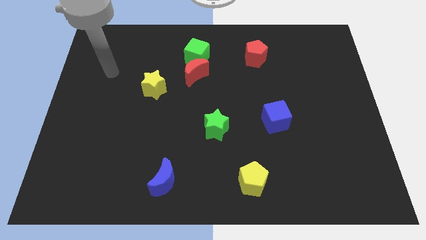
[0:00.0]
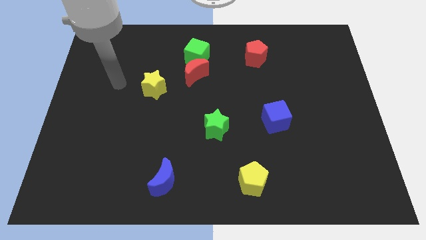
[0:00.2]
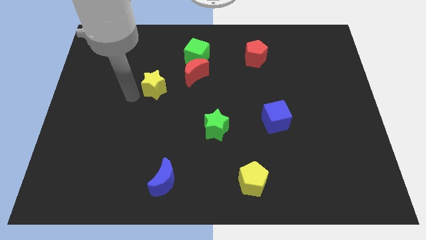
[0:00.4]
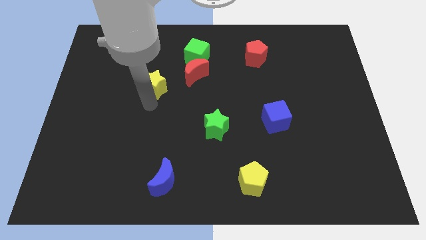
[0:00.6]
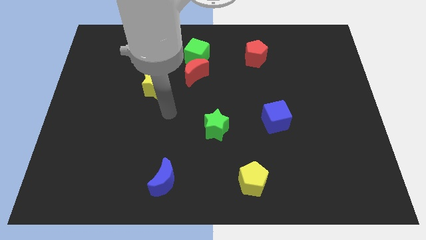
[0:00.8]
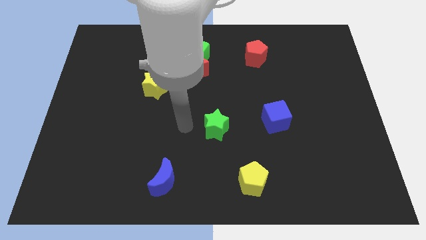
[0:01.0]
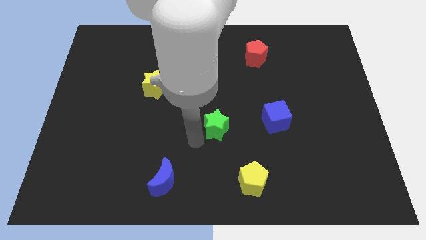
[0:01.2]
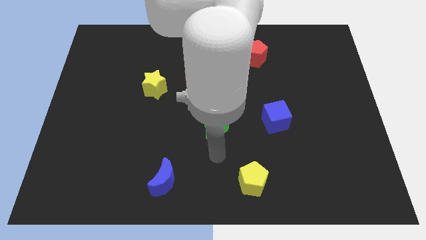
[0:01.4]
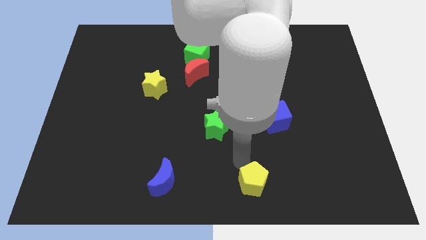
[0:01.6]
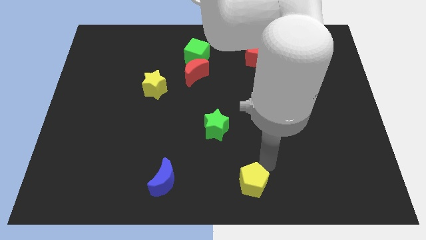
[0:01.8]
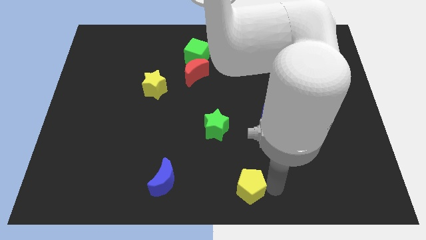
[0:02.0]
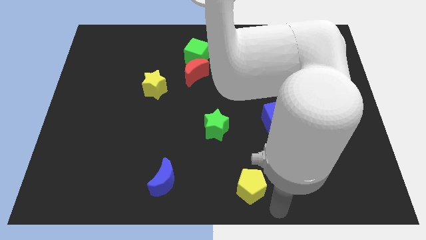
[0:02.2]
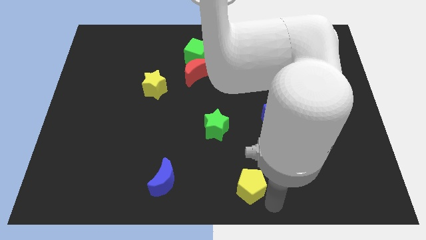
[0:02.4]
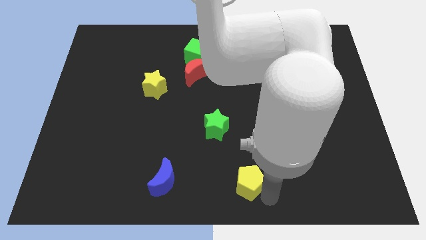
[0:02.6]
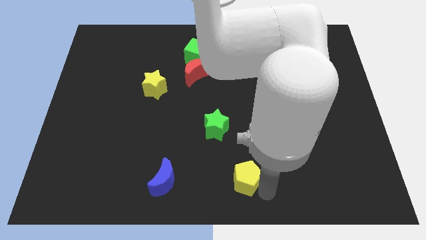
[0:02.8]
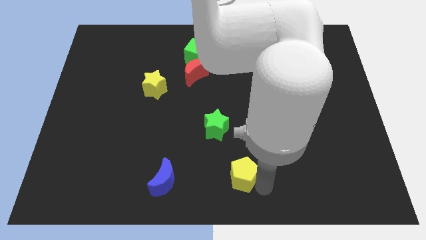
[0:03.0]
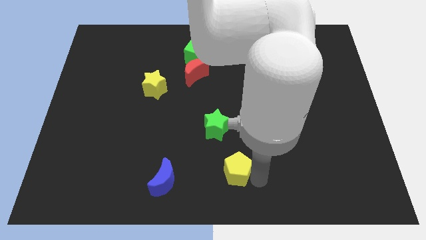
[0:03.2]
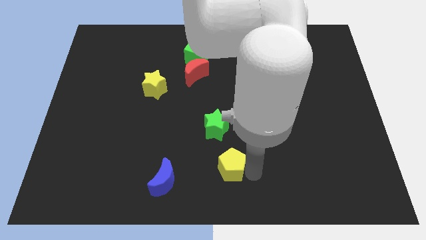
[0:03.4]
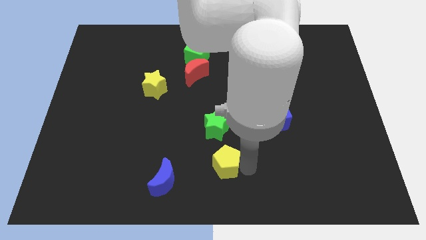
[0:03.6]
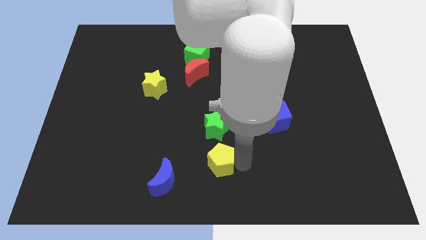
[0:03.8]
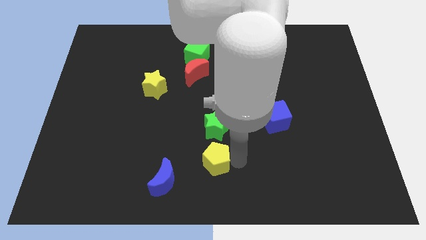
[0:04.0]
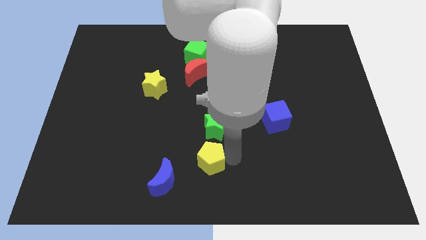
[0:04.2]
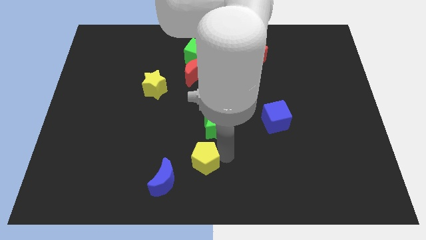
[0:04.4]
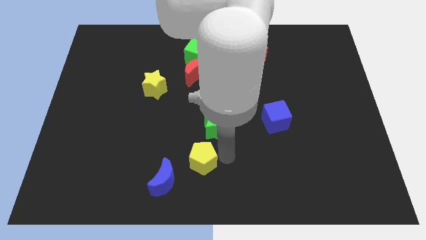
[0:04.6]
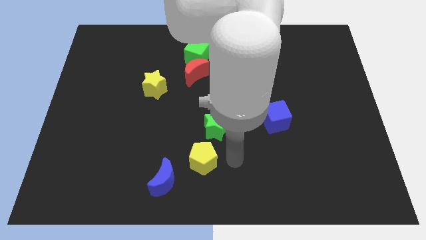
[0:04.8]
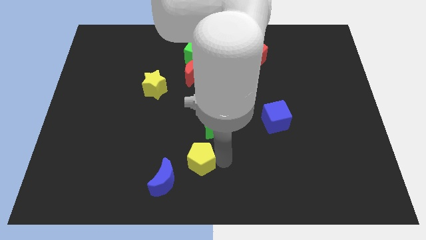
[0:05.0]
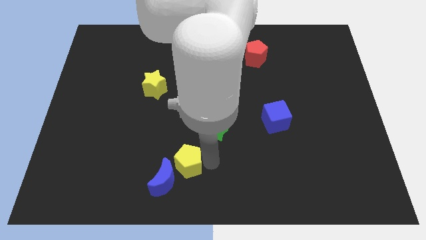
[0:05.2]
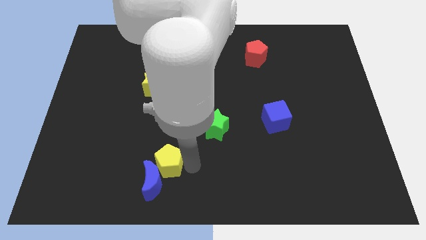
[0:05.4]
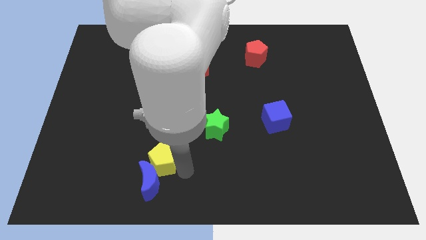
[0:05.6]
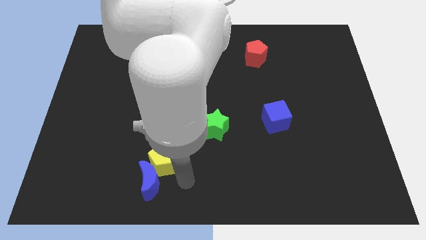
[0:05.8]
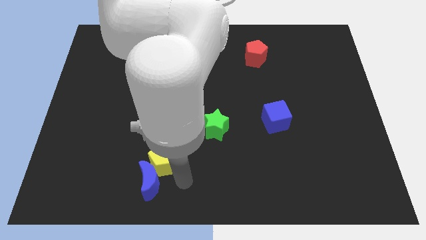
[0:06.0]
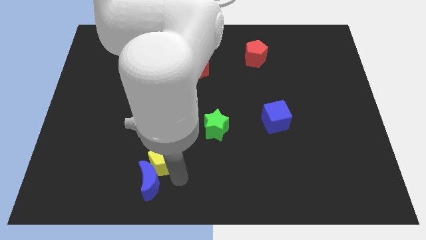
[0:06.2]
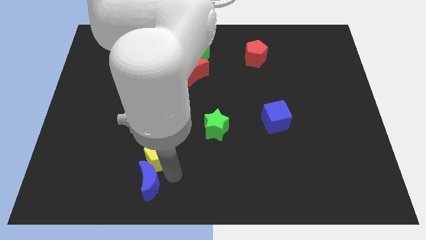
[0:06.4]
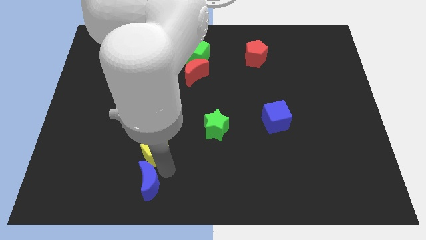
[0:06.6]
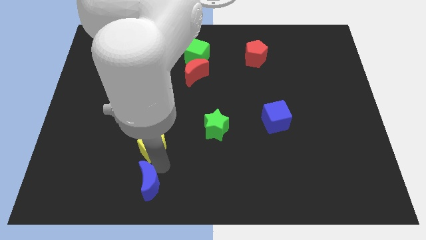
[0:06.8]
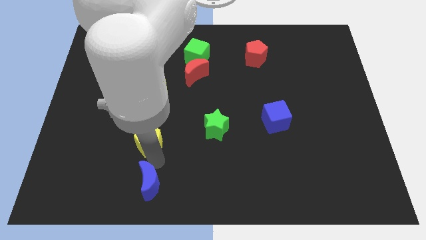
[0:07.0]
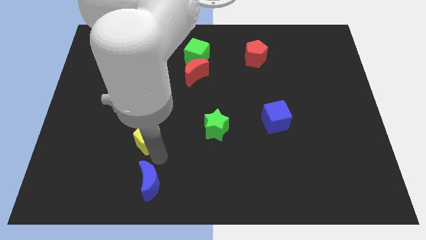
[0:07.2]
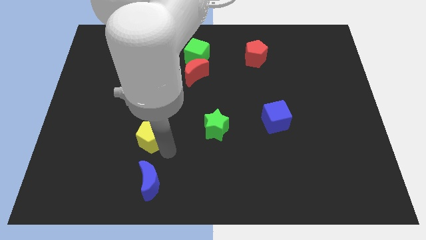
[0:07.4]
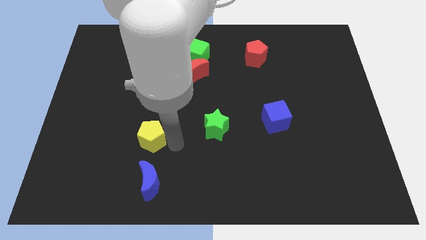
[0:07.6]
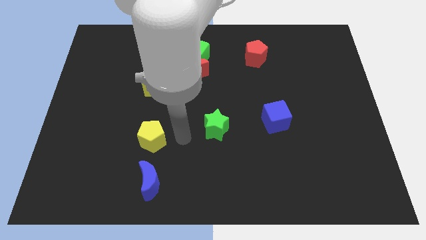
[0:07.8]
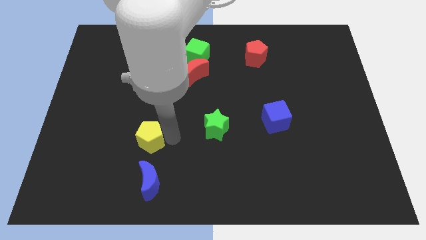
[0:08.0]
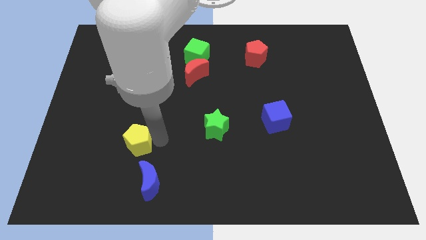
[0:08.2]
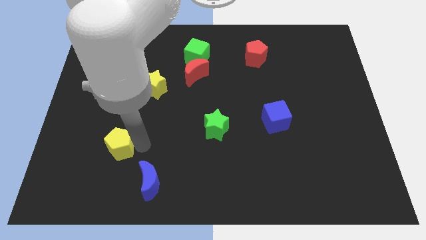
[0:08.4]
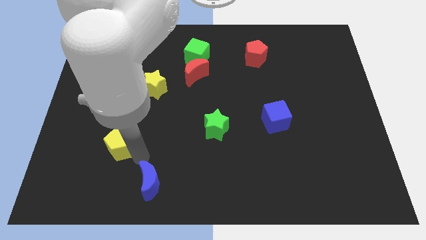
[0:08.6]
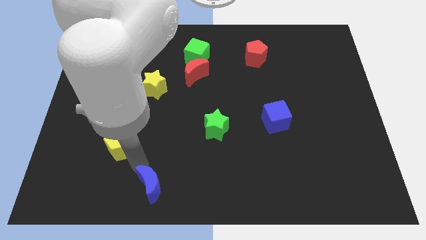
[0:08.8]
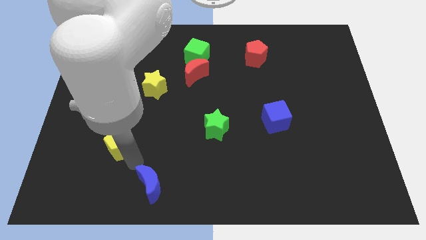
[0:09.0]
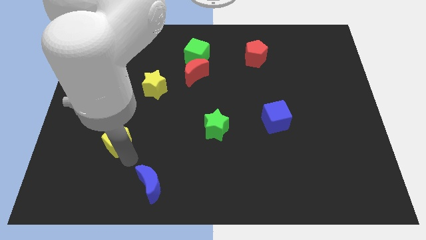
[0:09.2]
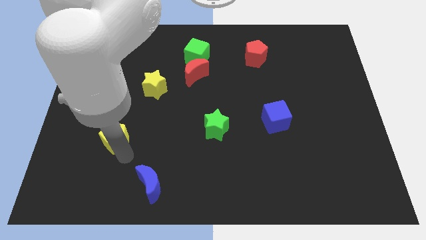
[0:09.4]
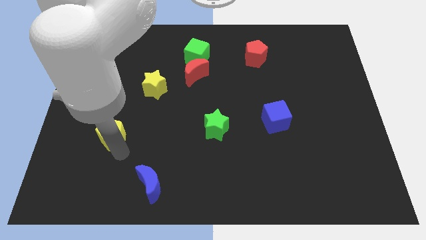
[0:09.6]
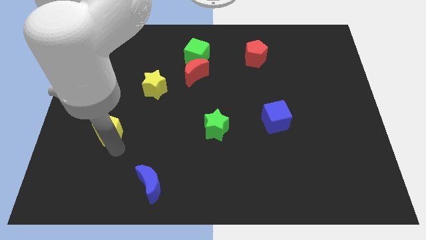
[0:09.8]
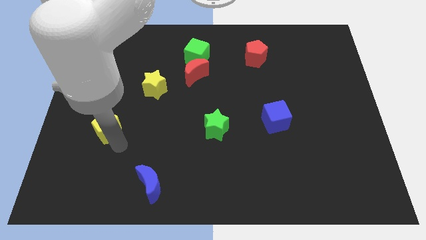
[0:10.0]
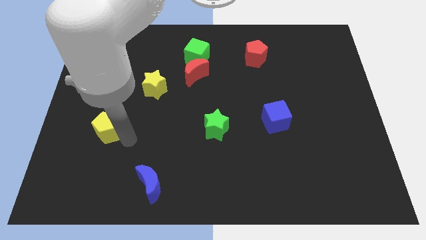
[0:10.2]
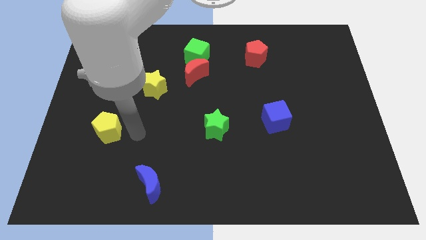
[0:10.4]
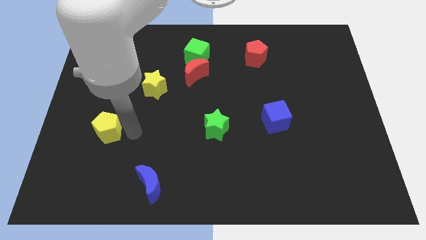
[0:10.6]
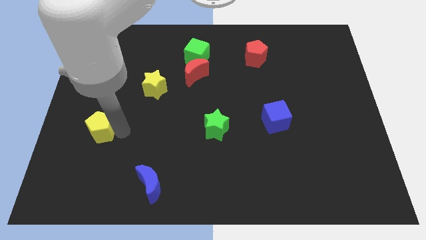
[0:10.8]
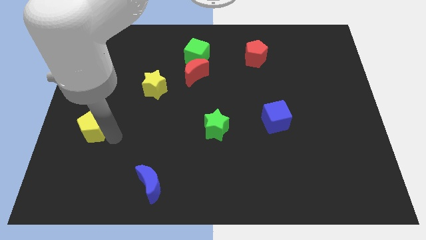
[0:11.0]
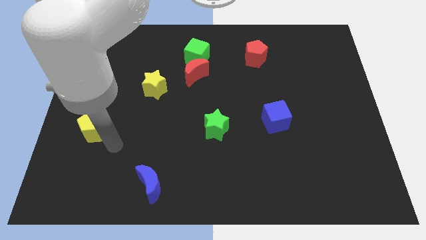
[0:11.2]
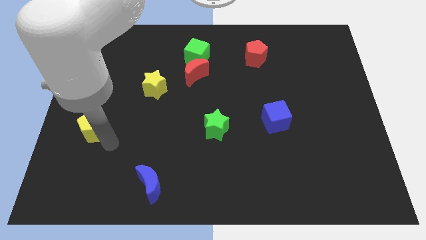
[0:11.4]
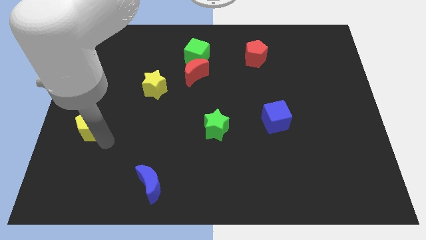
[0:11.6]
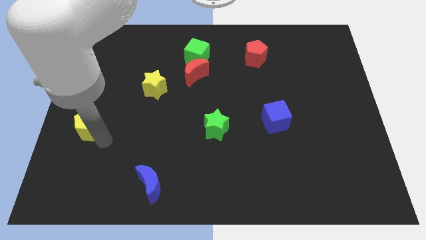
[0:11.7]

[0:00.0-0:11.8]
slide the yellow pentagon to the left side of the board

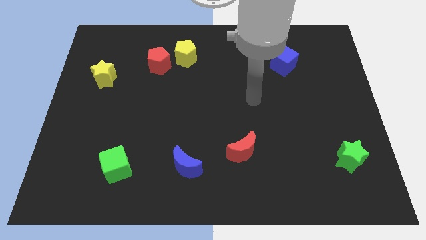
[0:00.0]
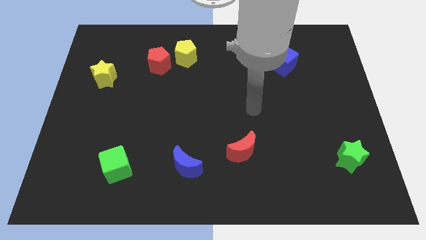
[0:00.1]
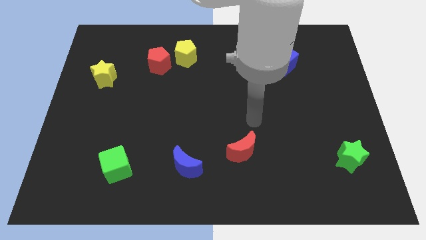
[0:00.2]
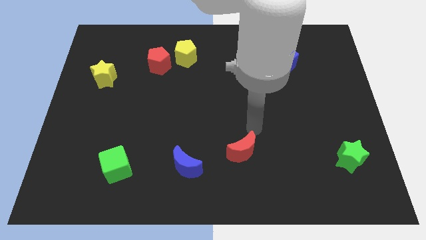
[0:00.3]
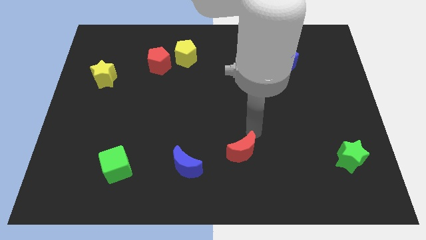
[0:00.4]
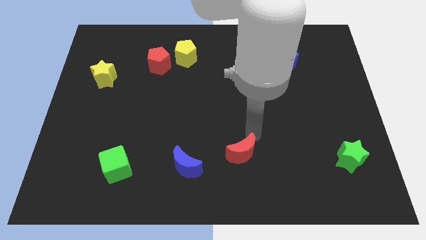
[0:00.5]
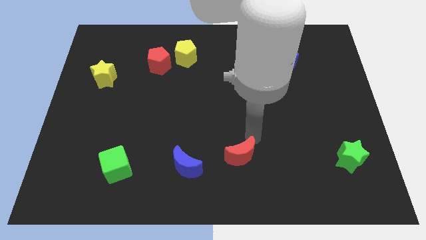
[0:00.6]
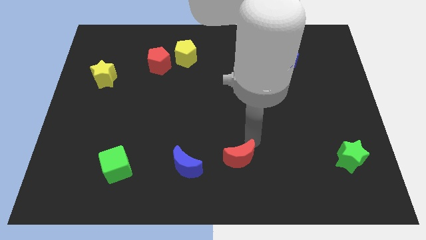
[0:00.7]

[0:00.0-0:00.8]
move the red moon to the bottom side
